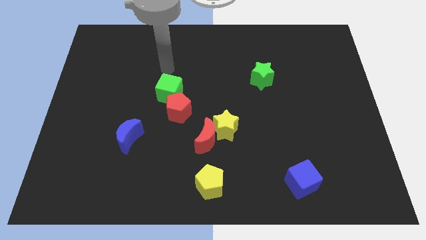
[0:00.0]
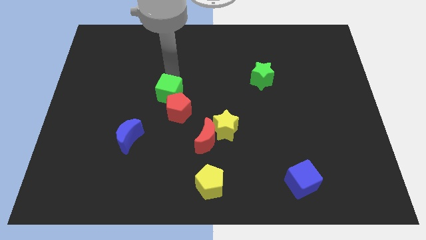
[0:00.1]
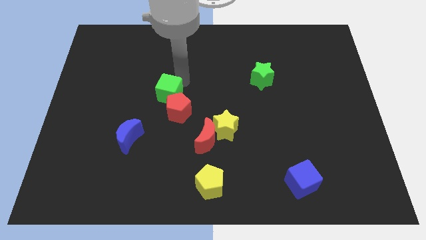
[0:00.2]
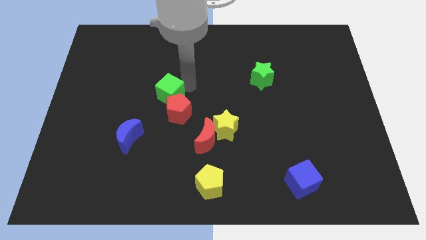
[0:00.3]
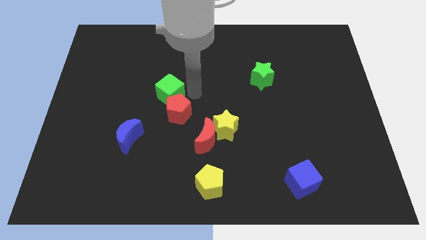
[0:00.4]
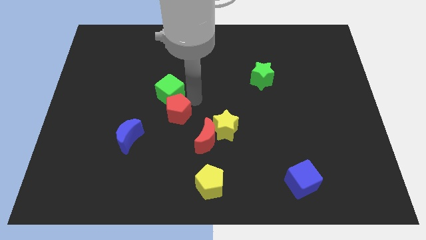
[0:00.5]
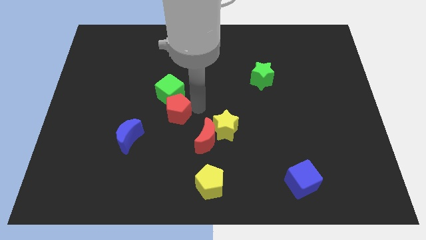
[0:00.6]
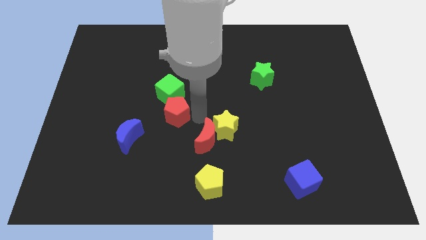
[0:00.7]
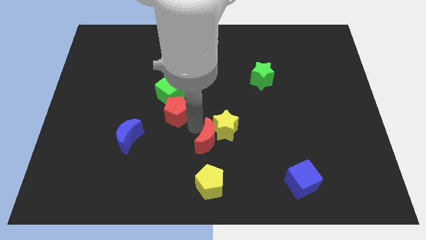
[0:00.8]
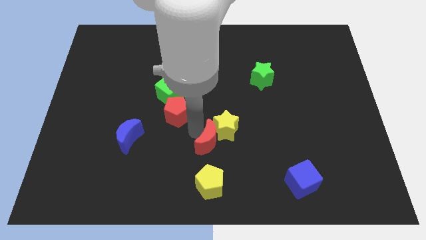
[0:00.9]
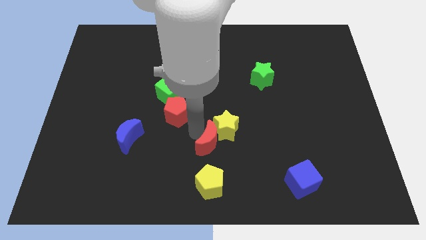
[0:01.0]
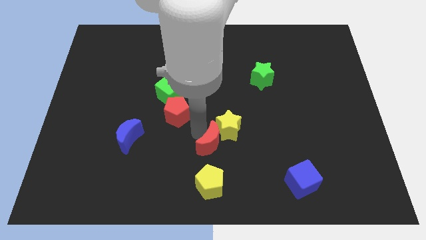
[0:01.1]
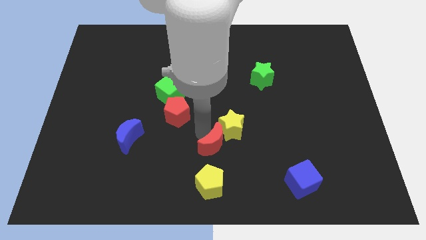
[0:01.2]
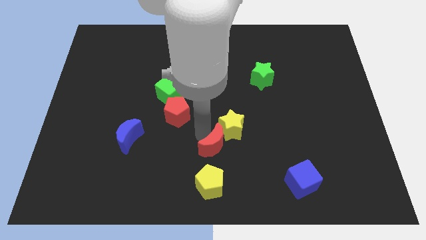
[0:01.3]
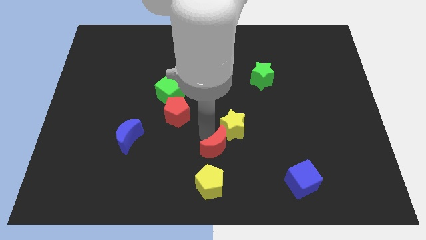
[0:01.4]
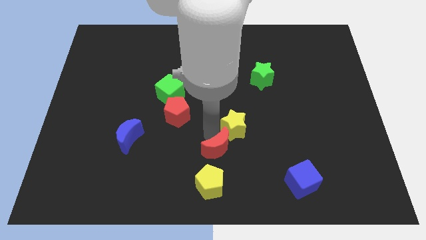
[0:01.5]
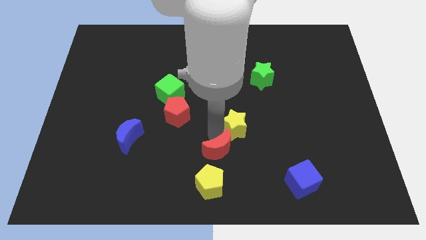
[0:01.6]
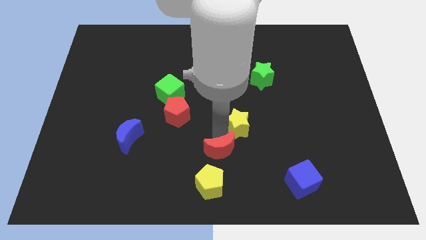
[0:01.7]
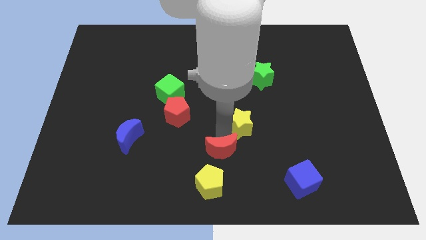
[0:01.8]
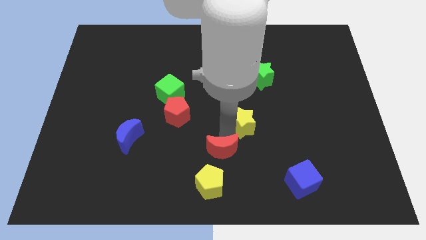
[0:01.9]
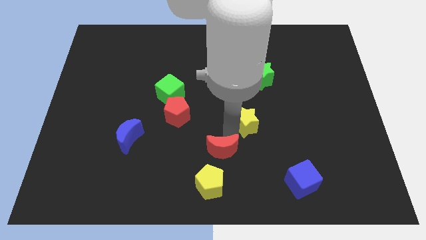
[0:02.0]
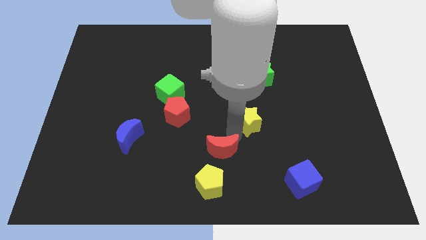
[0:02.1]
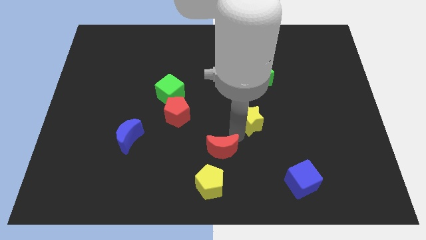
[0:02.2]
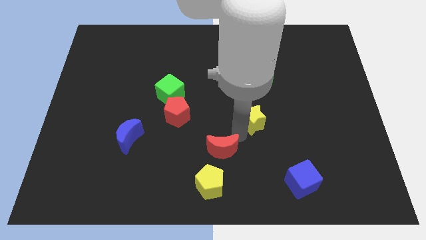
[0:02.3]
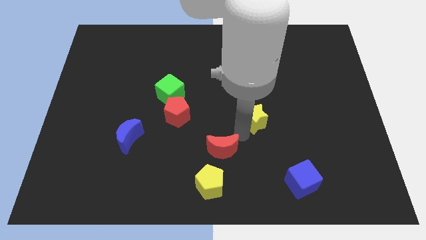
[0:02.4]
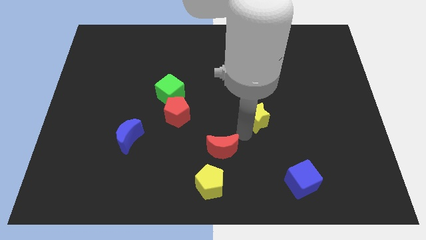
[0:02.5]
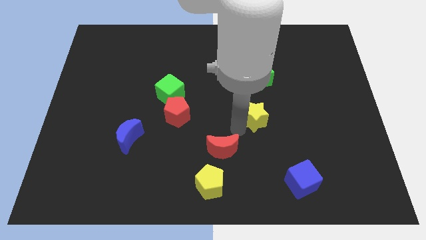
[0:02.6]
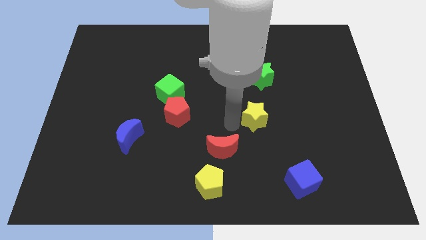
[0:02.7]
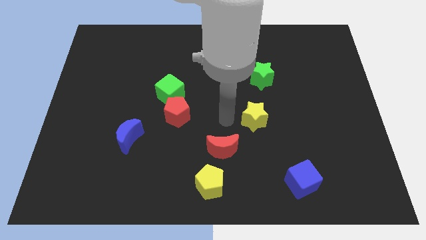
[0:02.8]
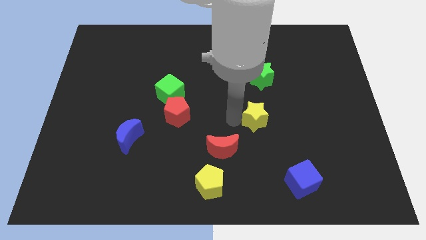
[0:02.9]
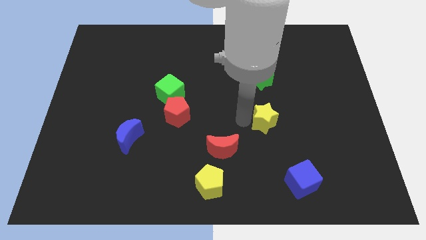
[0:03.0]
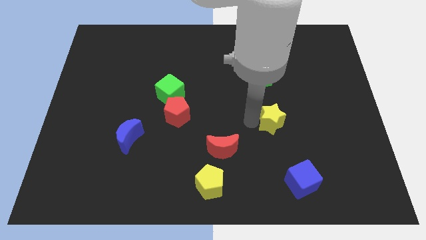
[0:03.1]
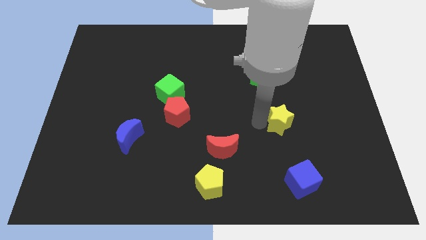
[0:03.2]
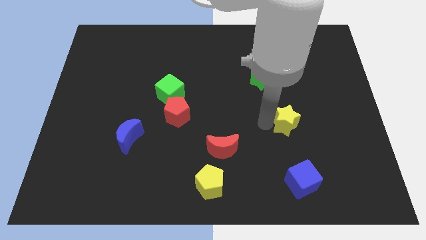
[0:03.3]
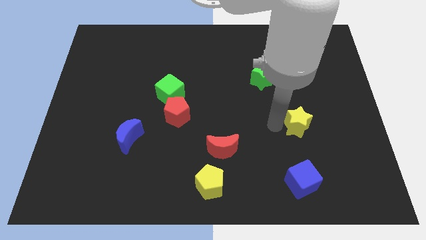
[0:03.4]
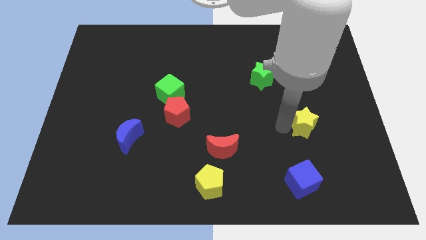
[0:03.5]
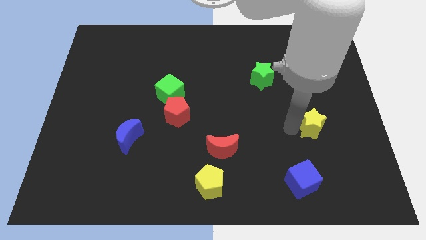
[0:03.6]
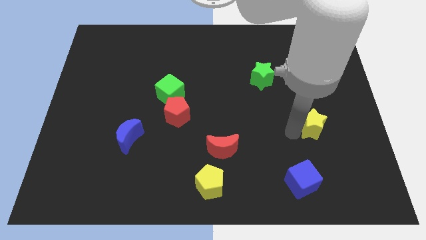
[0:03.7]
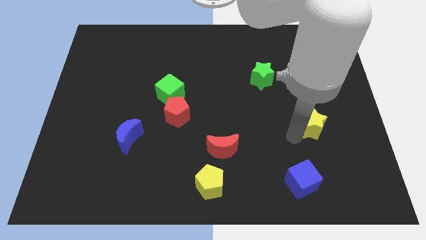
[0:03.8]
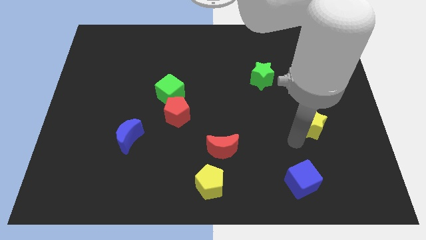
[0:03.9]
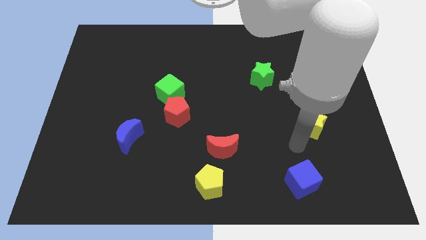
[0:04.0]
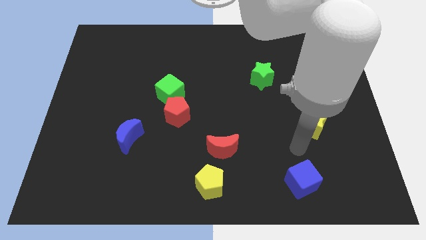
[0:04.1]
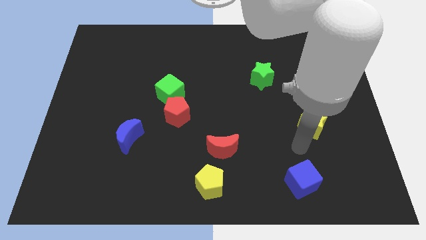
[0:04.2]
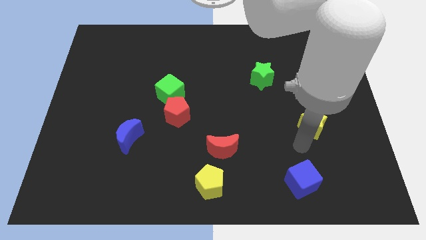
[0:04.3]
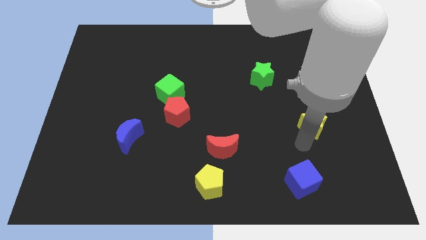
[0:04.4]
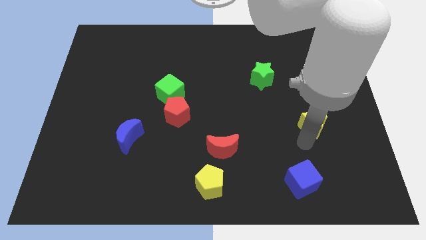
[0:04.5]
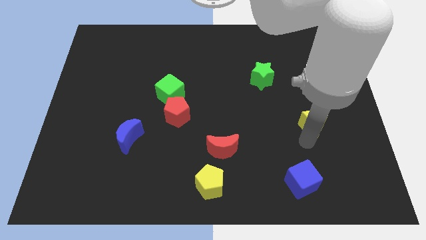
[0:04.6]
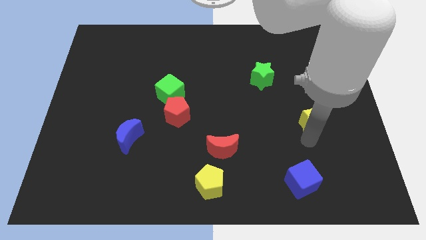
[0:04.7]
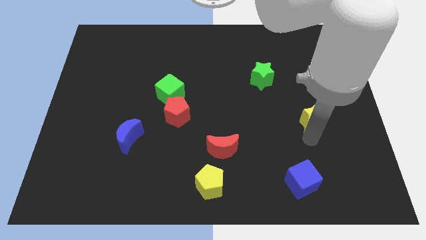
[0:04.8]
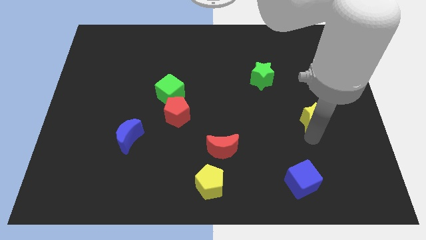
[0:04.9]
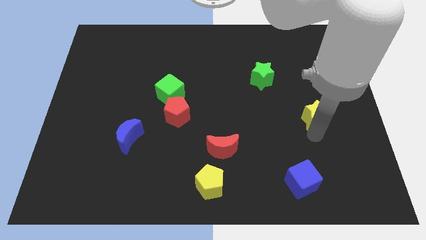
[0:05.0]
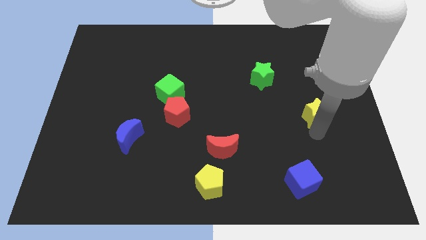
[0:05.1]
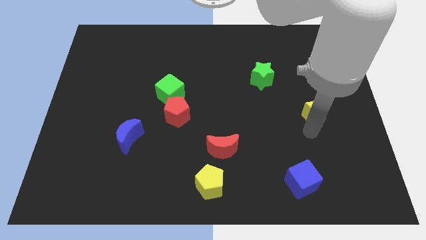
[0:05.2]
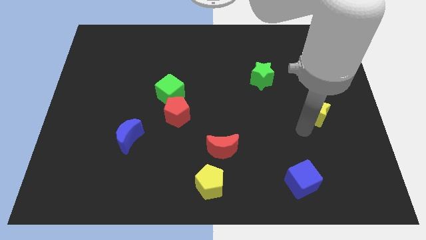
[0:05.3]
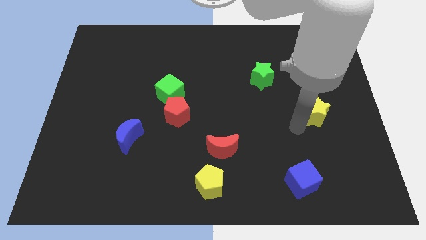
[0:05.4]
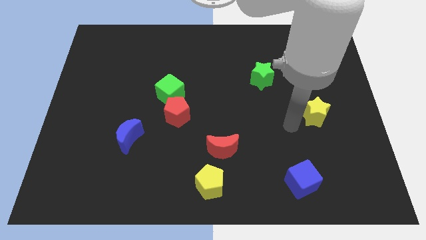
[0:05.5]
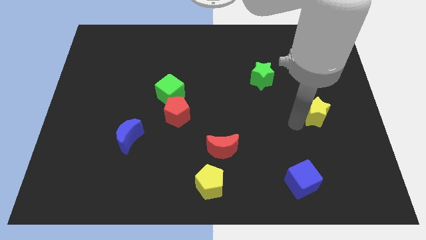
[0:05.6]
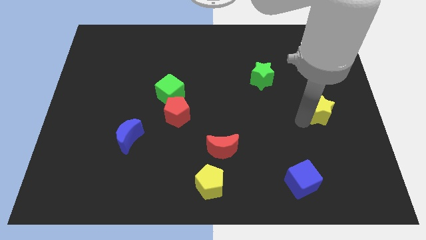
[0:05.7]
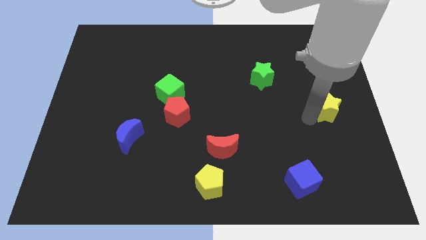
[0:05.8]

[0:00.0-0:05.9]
put the yellow star to the right side
